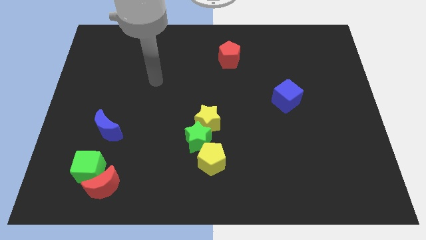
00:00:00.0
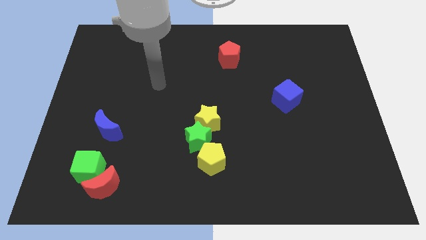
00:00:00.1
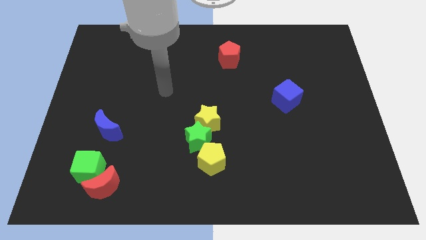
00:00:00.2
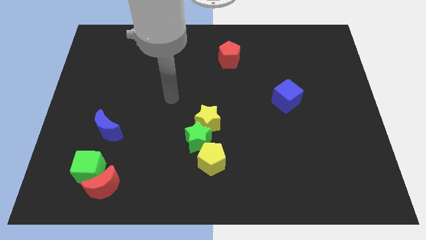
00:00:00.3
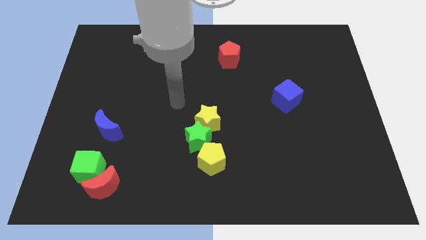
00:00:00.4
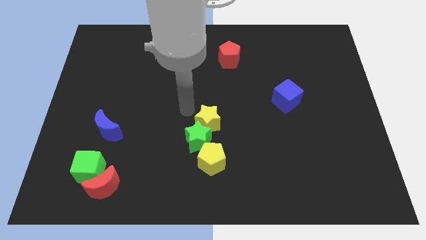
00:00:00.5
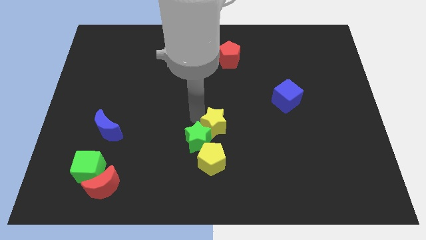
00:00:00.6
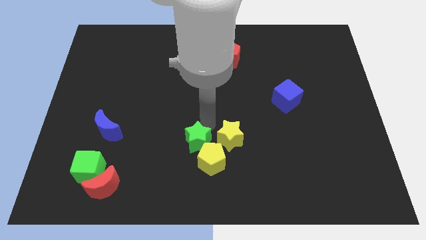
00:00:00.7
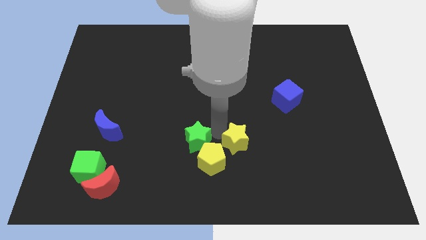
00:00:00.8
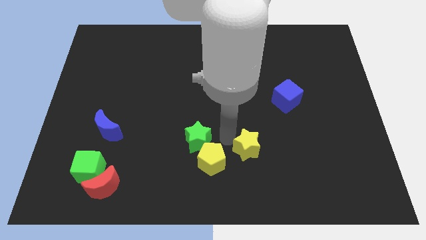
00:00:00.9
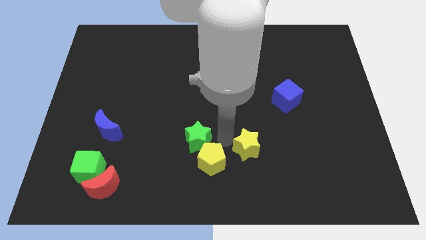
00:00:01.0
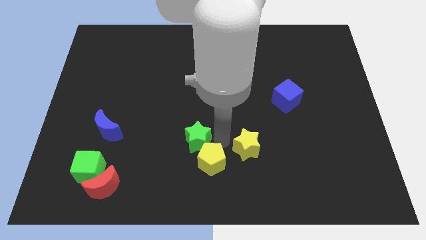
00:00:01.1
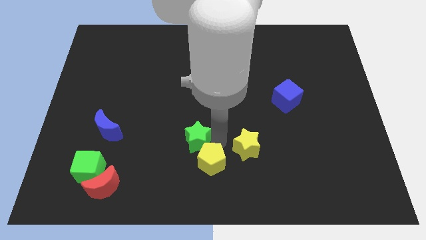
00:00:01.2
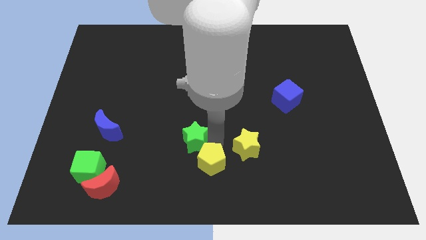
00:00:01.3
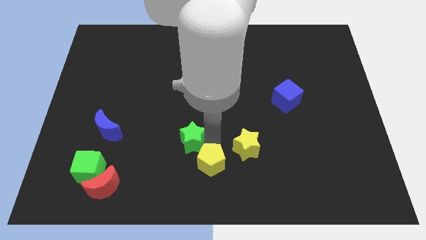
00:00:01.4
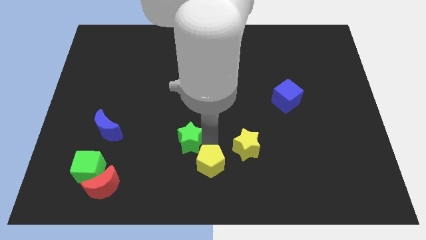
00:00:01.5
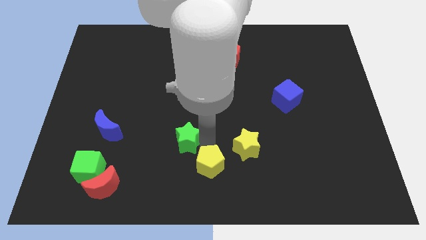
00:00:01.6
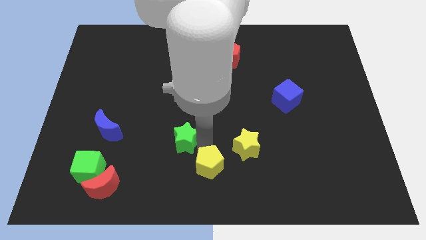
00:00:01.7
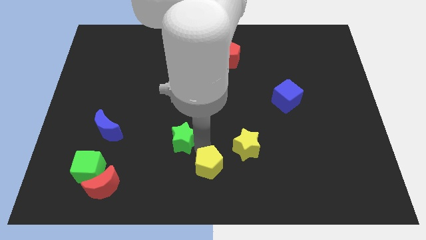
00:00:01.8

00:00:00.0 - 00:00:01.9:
pull the green star apart from the yellow star and yellow pentagon

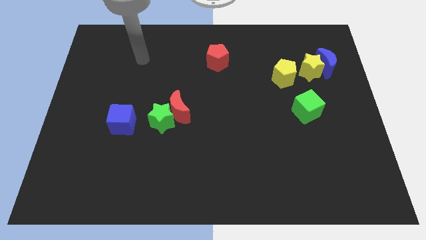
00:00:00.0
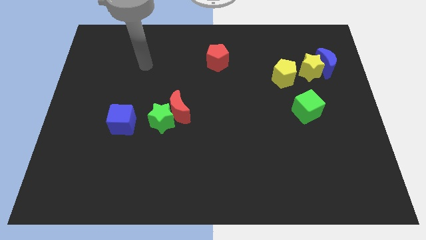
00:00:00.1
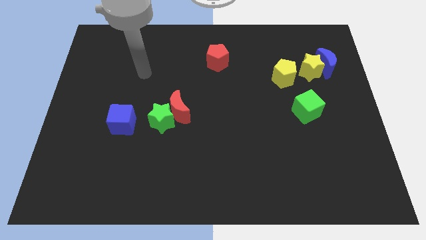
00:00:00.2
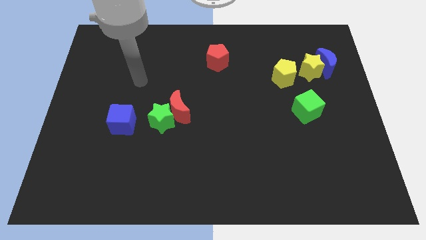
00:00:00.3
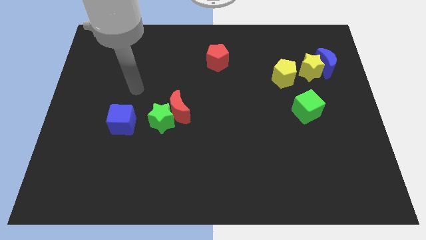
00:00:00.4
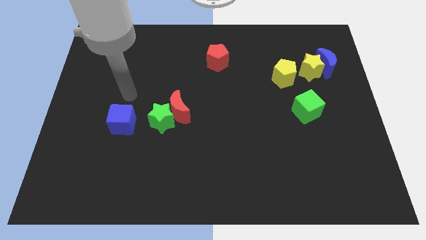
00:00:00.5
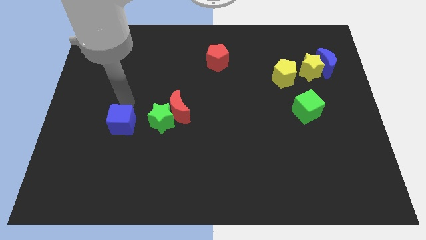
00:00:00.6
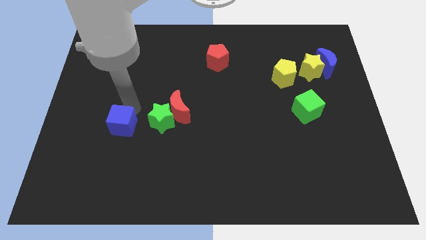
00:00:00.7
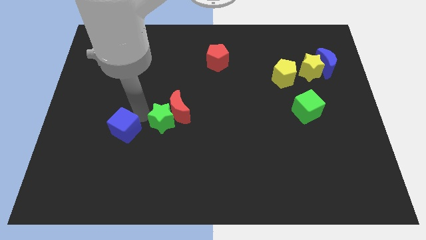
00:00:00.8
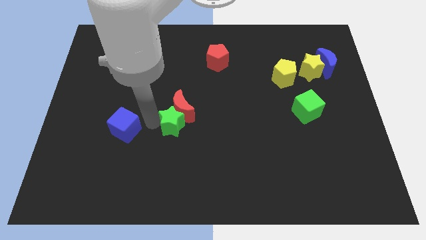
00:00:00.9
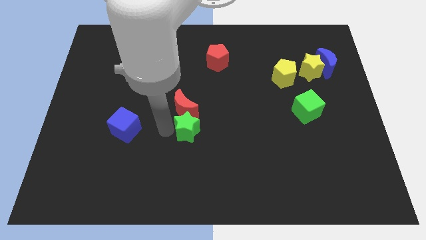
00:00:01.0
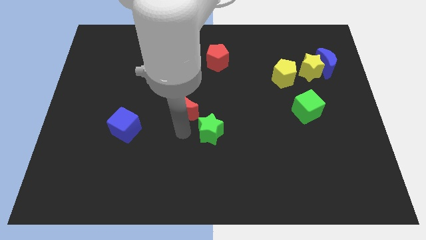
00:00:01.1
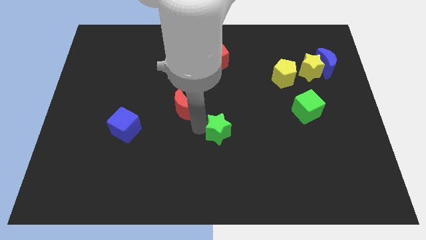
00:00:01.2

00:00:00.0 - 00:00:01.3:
separate the red moon from the green star

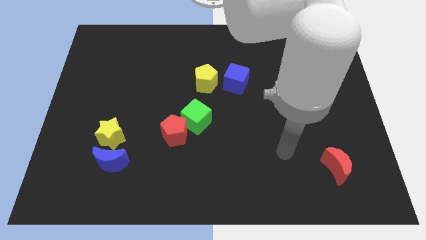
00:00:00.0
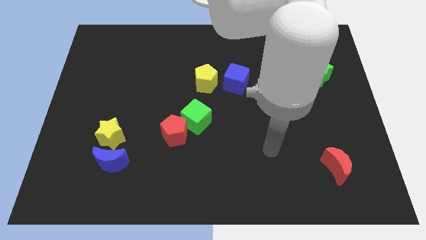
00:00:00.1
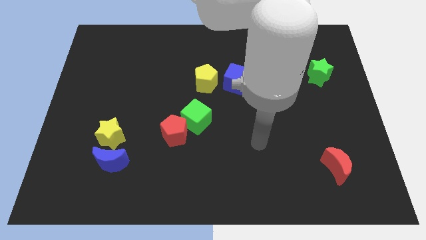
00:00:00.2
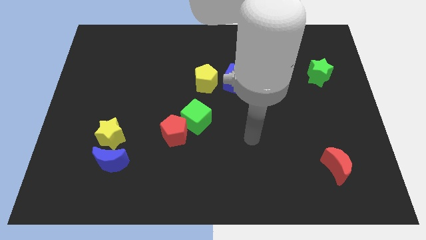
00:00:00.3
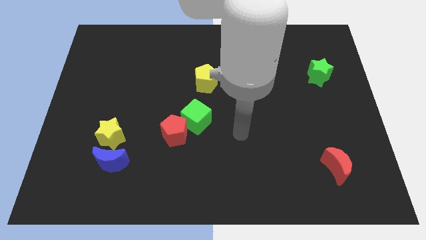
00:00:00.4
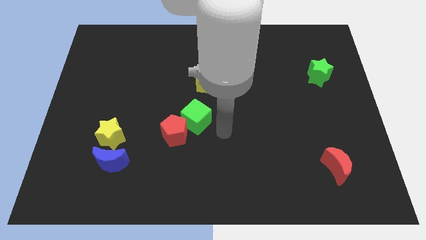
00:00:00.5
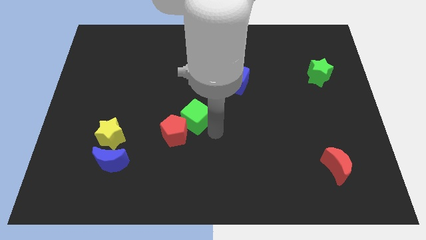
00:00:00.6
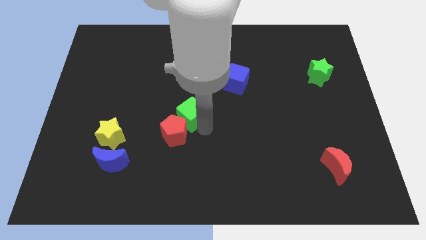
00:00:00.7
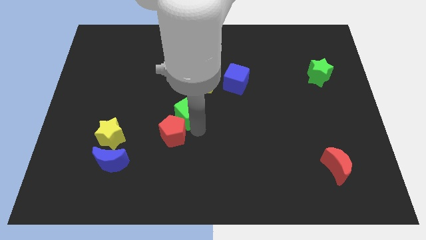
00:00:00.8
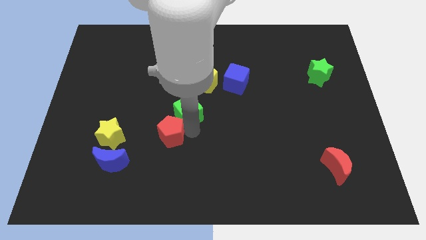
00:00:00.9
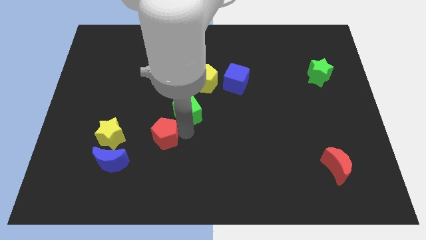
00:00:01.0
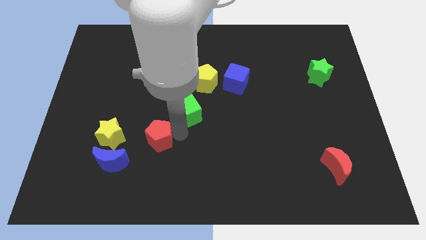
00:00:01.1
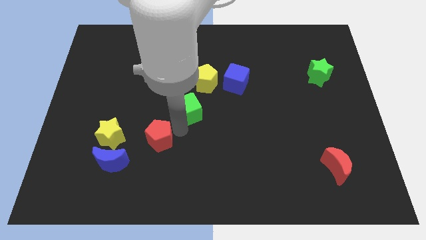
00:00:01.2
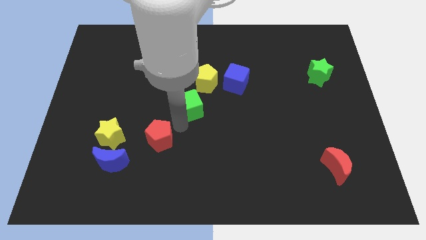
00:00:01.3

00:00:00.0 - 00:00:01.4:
separate the red pentagon from the green cube

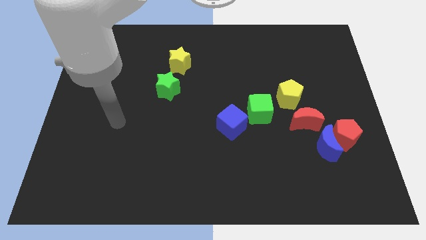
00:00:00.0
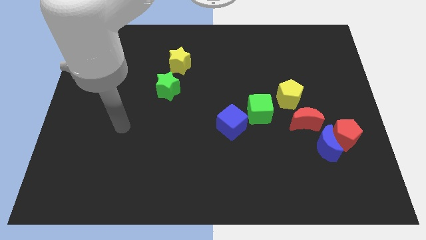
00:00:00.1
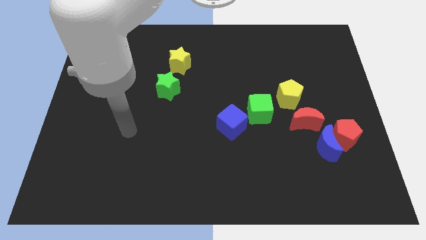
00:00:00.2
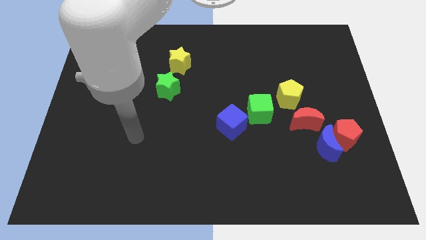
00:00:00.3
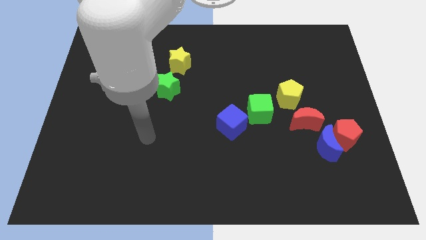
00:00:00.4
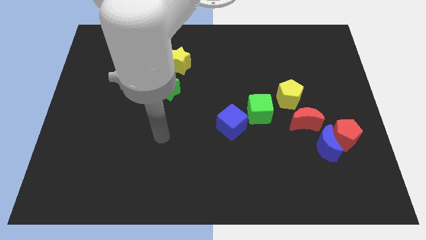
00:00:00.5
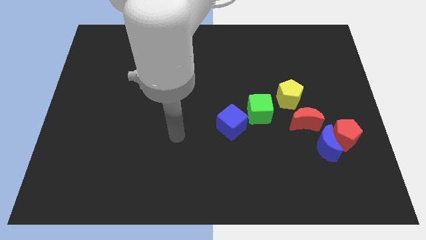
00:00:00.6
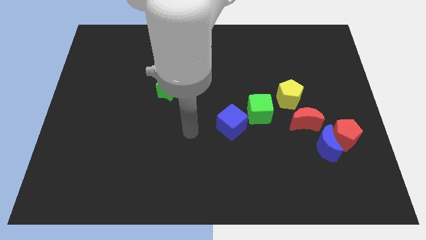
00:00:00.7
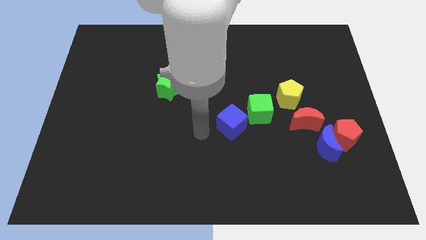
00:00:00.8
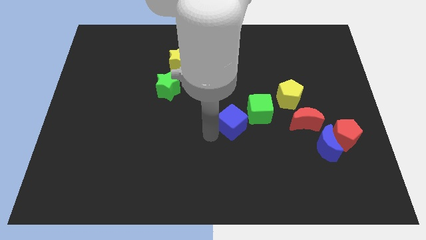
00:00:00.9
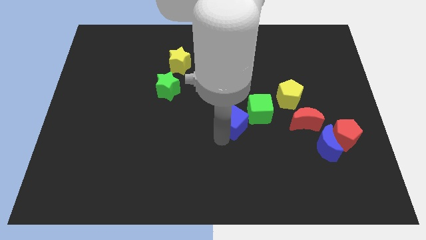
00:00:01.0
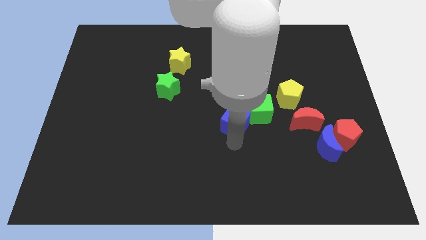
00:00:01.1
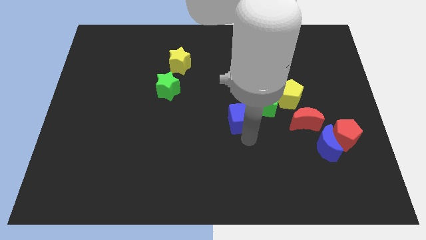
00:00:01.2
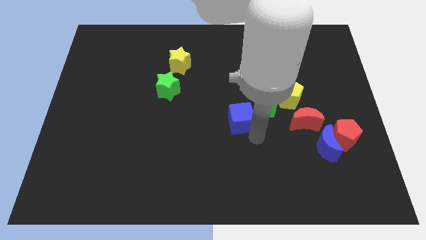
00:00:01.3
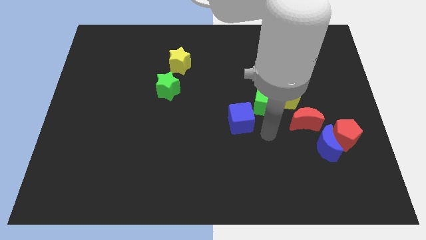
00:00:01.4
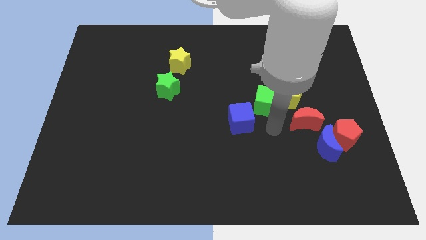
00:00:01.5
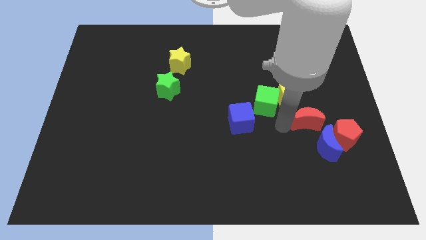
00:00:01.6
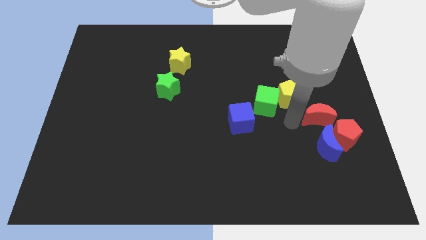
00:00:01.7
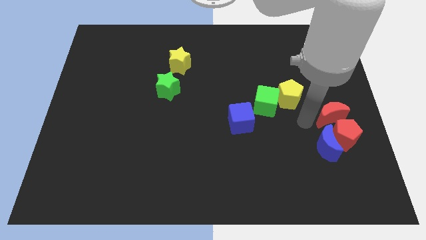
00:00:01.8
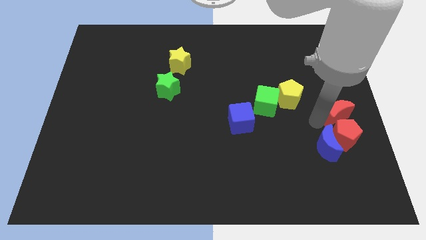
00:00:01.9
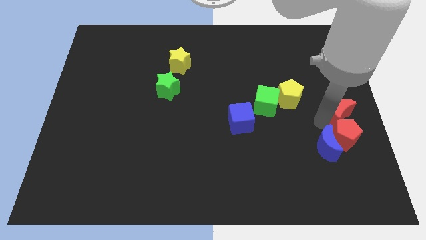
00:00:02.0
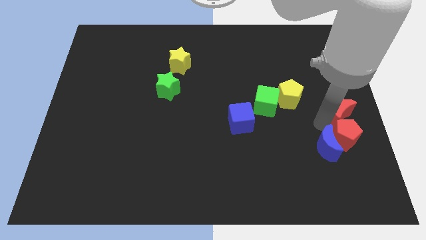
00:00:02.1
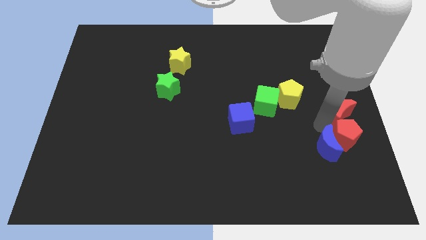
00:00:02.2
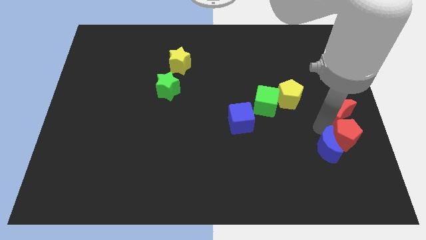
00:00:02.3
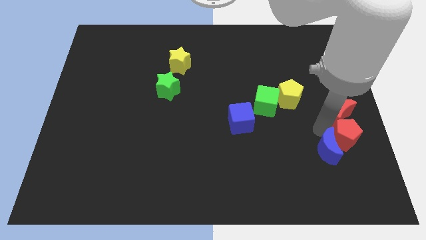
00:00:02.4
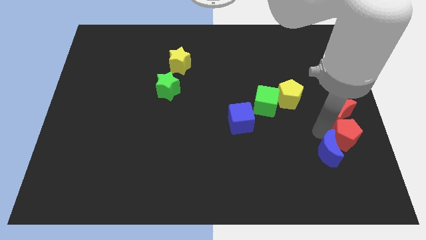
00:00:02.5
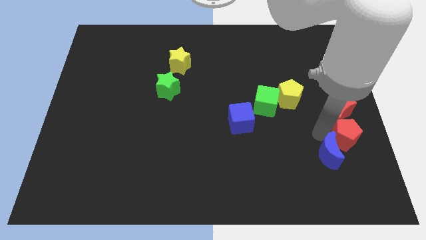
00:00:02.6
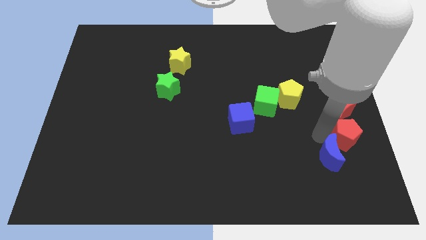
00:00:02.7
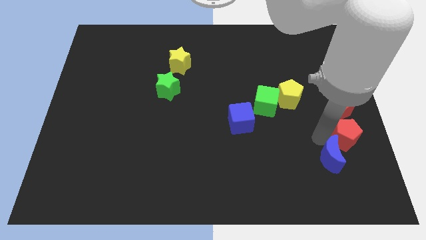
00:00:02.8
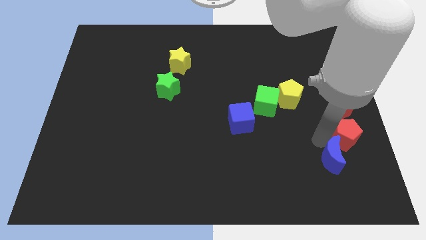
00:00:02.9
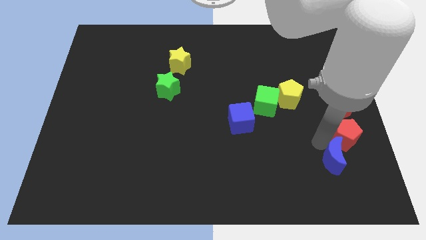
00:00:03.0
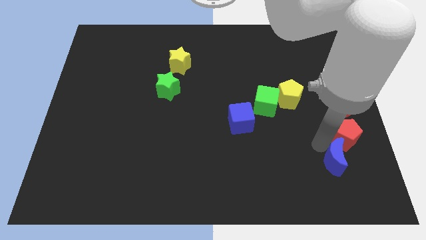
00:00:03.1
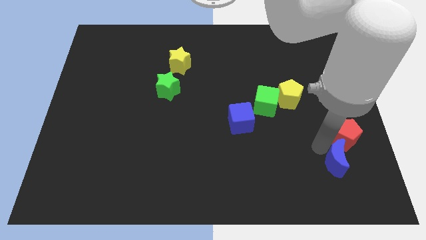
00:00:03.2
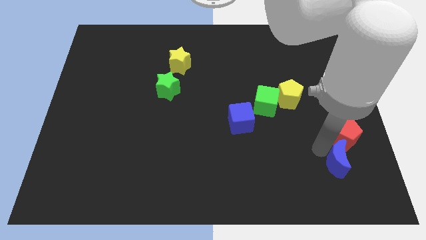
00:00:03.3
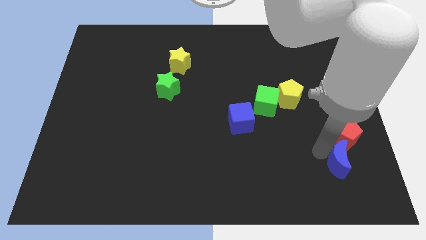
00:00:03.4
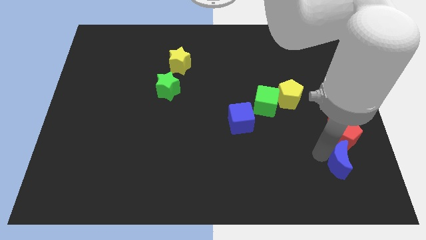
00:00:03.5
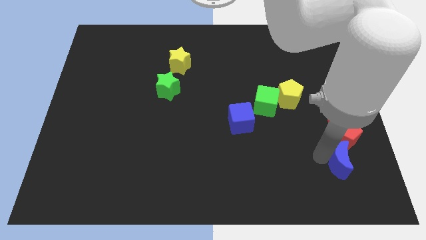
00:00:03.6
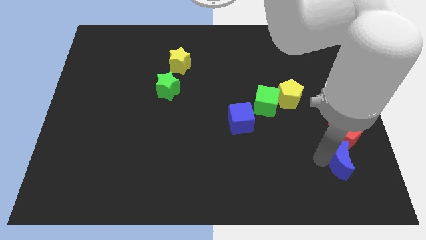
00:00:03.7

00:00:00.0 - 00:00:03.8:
move the blue moon away from the red pentagon and red moon

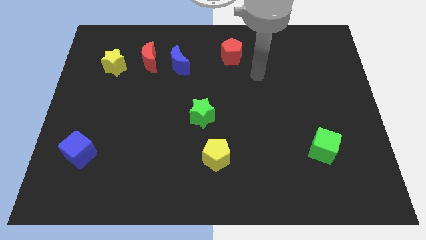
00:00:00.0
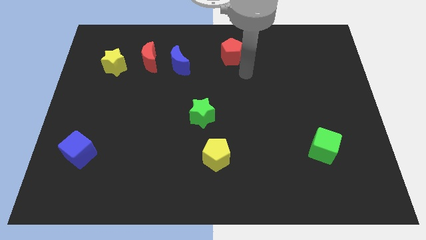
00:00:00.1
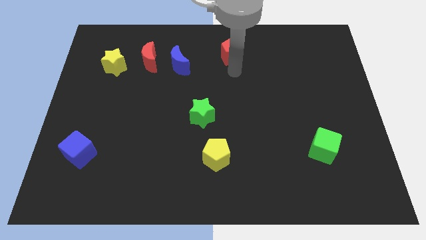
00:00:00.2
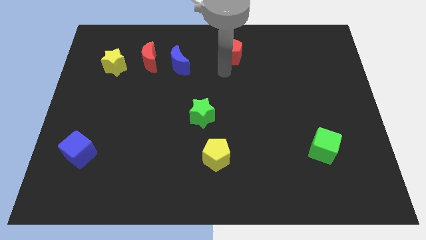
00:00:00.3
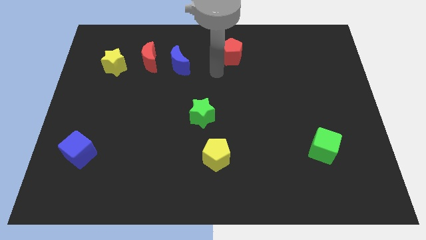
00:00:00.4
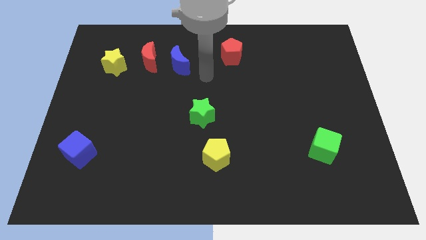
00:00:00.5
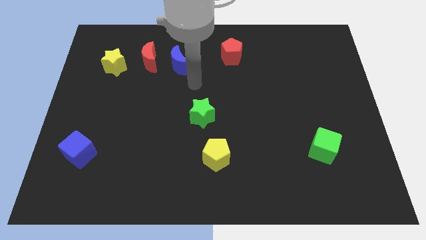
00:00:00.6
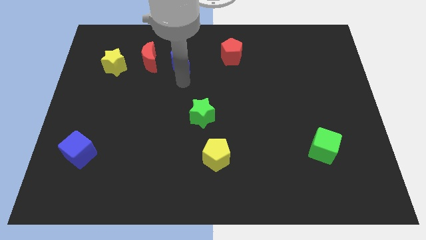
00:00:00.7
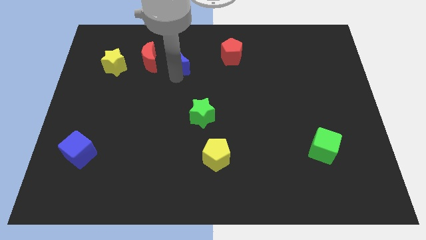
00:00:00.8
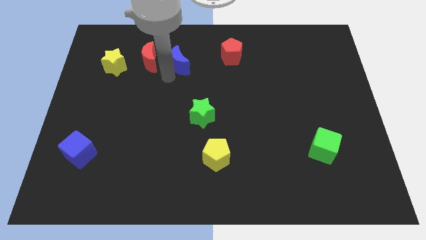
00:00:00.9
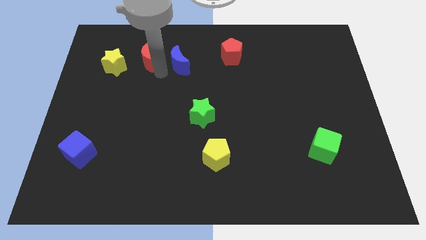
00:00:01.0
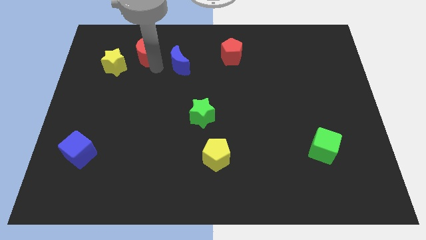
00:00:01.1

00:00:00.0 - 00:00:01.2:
move the blue moon away from the red moon
